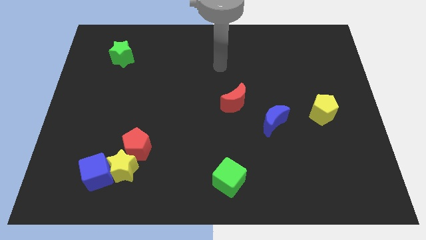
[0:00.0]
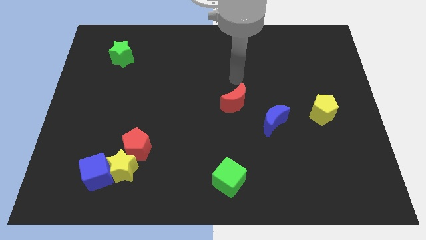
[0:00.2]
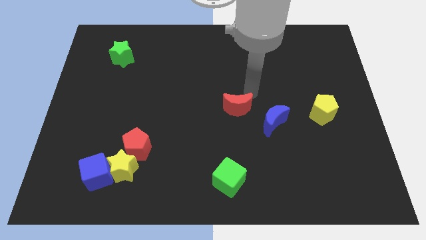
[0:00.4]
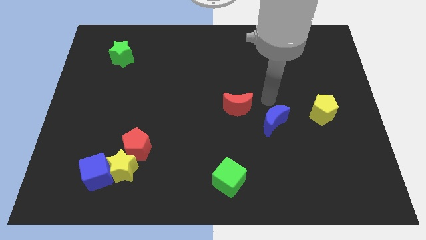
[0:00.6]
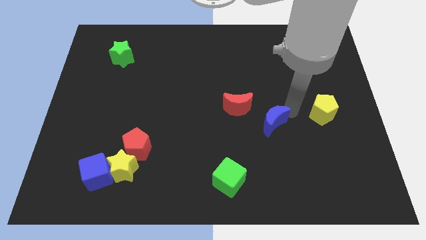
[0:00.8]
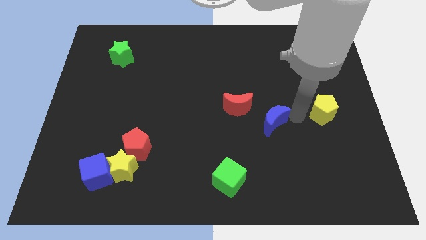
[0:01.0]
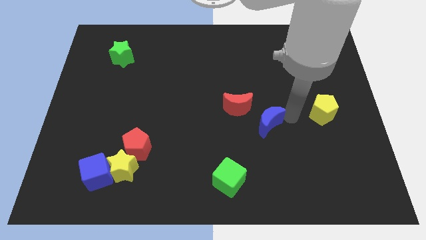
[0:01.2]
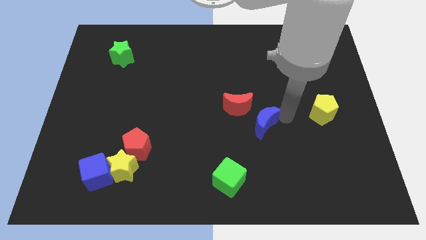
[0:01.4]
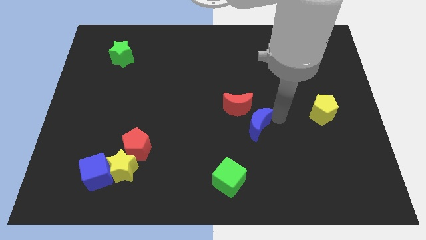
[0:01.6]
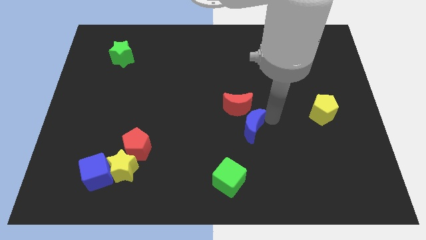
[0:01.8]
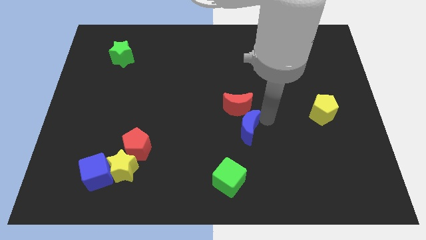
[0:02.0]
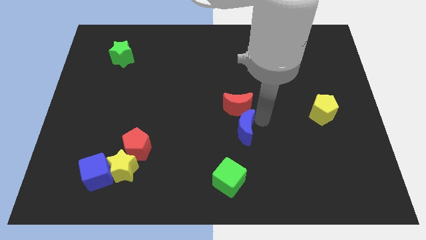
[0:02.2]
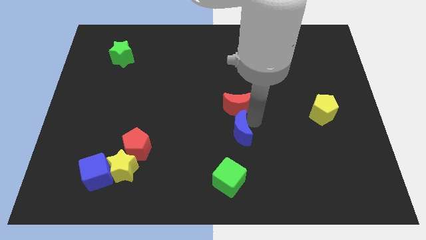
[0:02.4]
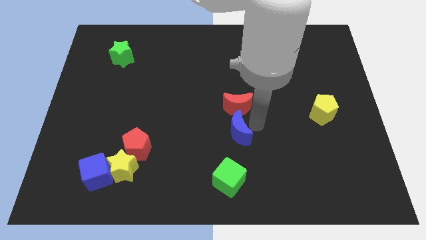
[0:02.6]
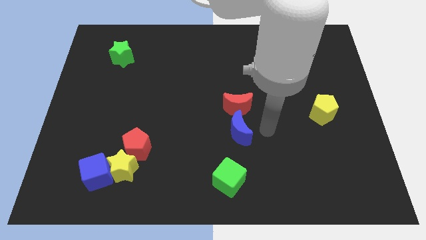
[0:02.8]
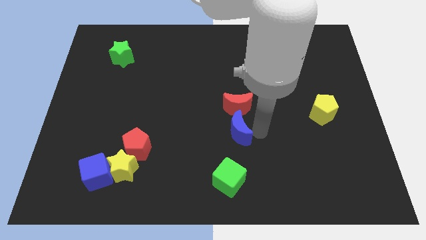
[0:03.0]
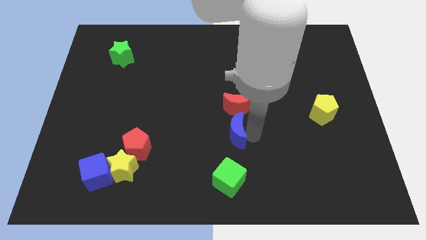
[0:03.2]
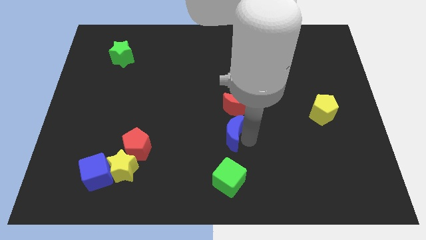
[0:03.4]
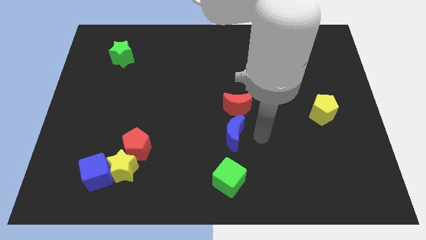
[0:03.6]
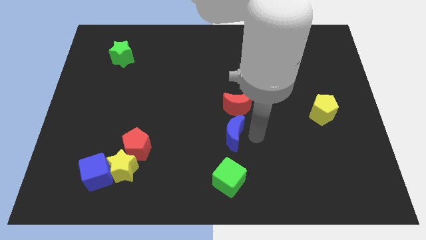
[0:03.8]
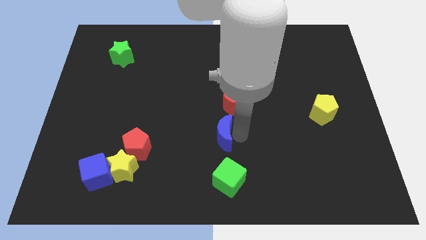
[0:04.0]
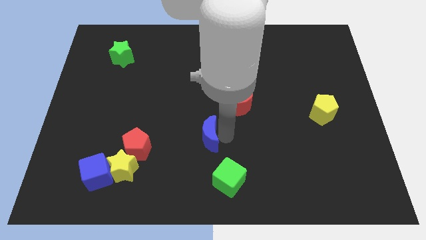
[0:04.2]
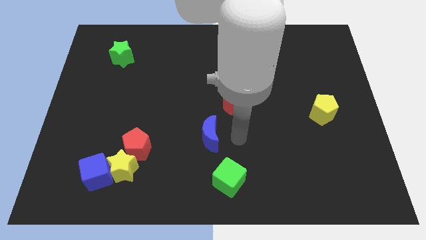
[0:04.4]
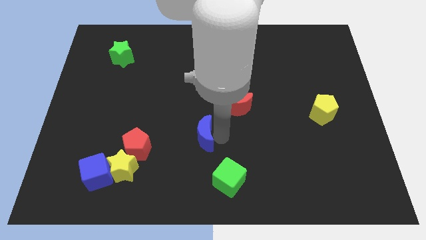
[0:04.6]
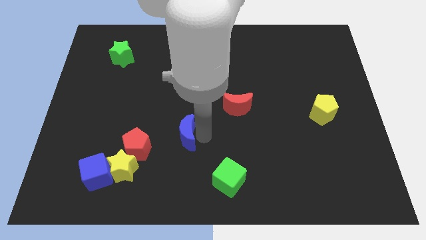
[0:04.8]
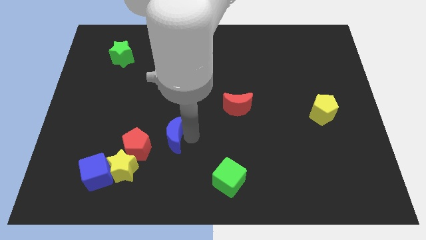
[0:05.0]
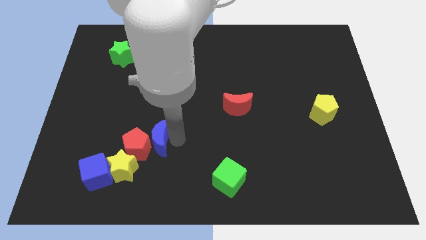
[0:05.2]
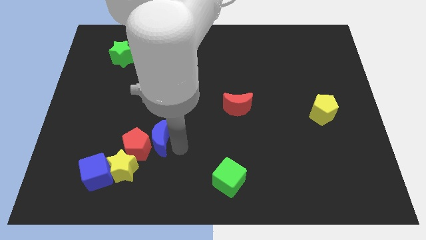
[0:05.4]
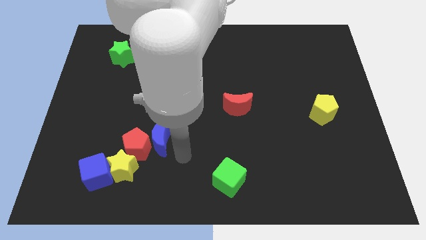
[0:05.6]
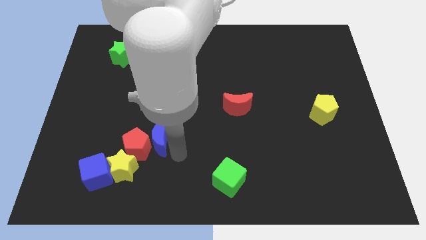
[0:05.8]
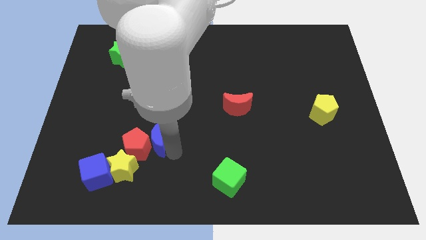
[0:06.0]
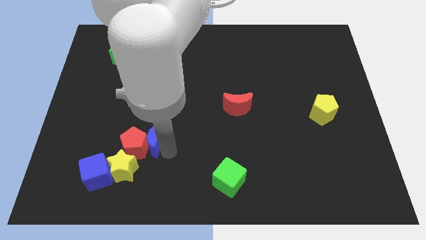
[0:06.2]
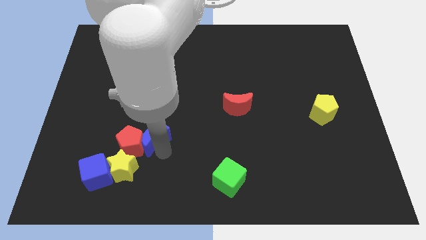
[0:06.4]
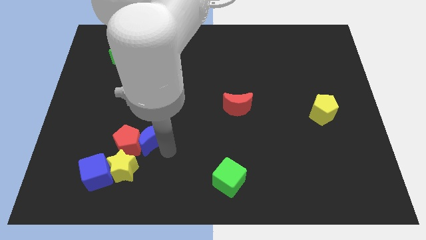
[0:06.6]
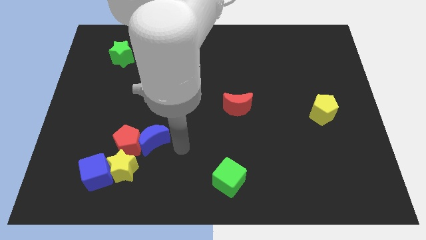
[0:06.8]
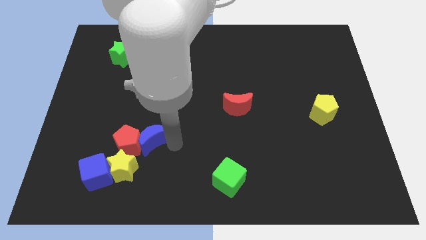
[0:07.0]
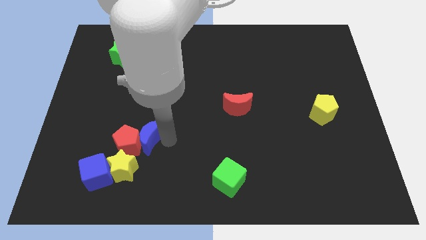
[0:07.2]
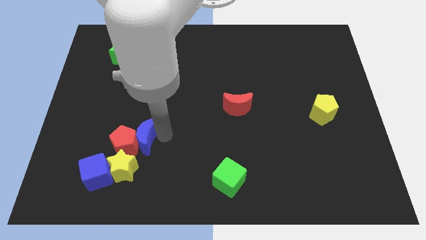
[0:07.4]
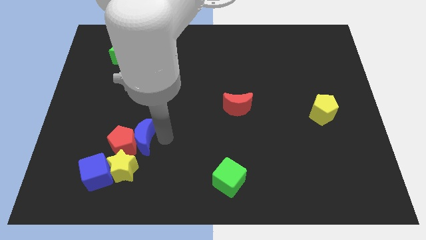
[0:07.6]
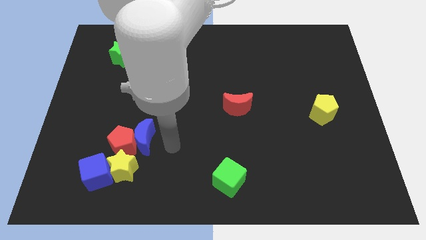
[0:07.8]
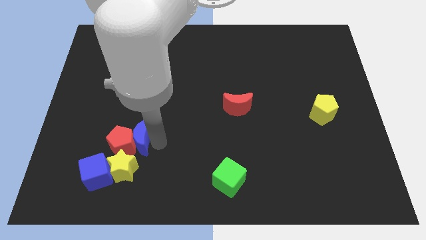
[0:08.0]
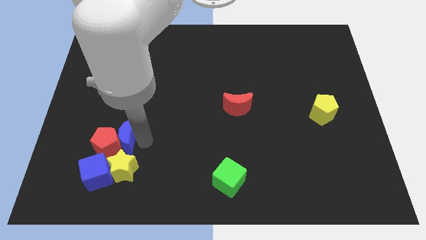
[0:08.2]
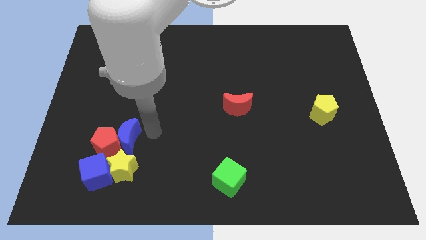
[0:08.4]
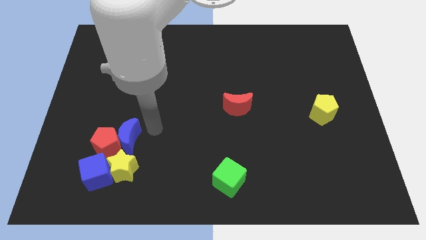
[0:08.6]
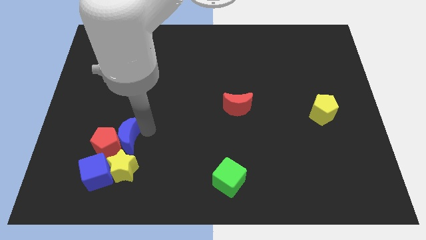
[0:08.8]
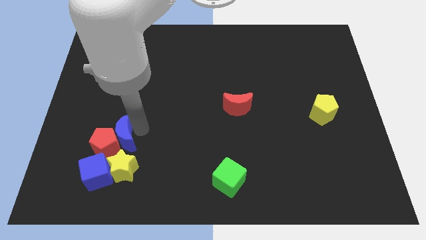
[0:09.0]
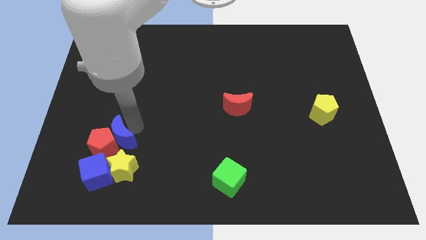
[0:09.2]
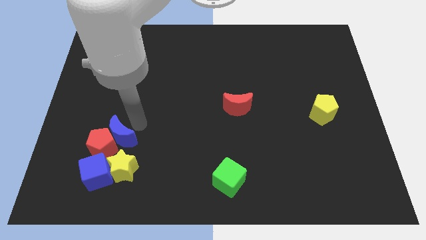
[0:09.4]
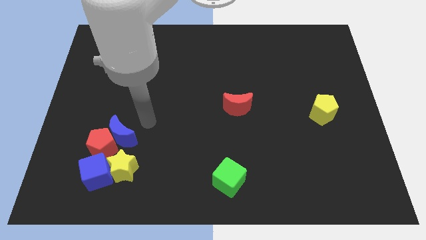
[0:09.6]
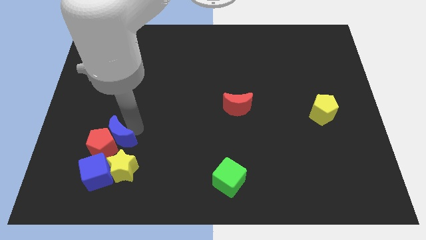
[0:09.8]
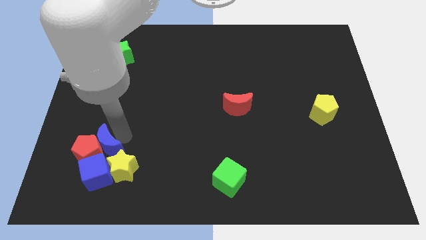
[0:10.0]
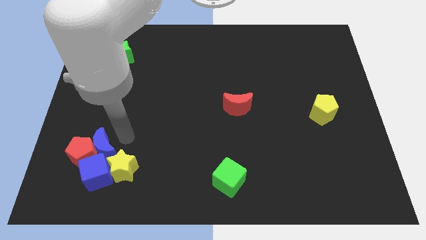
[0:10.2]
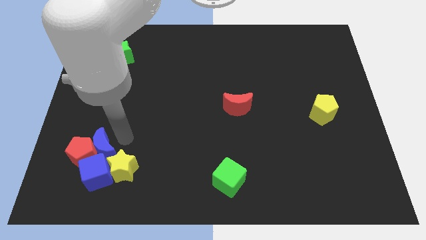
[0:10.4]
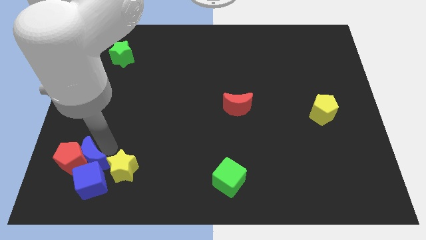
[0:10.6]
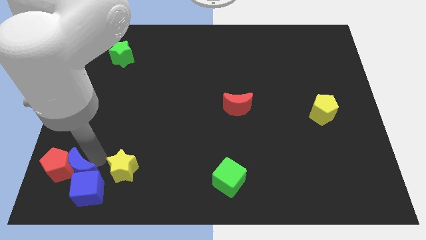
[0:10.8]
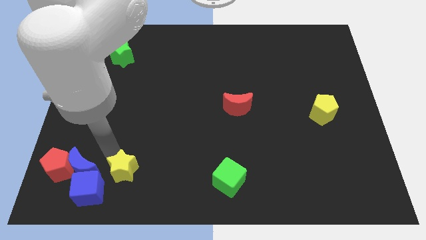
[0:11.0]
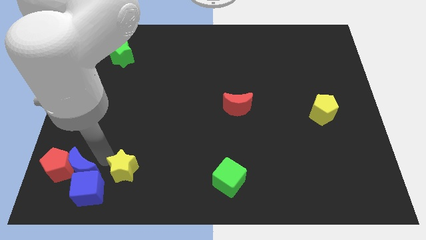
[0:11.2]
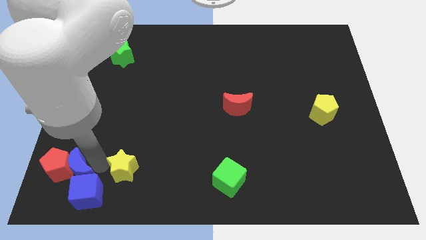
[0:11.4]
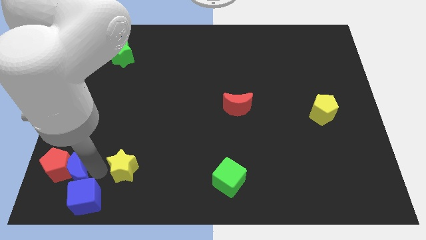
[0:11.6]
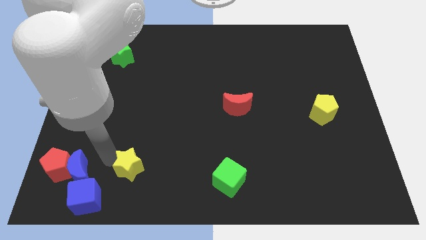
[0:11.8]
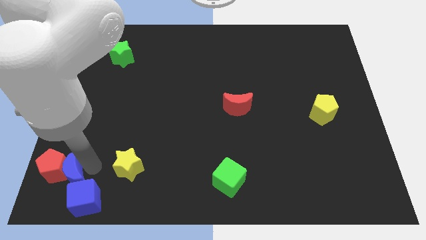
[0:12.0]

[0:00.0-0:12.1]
push the blue moon to the bottom left corner
